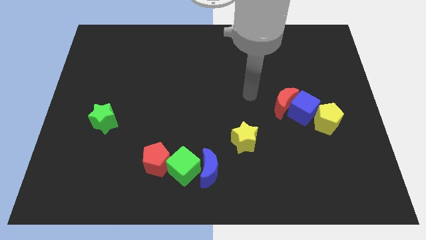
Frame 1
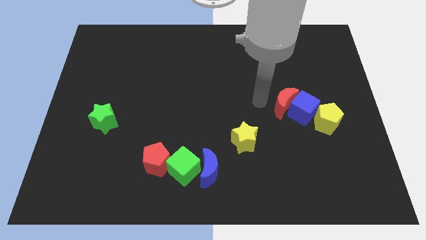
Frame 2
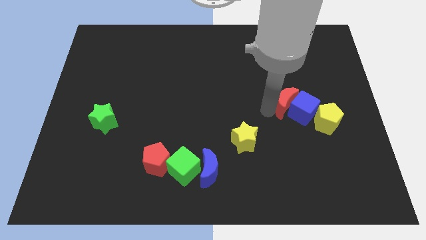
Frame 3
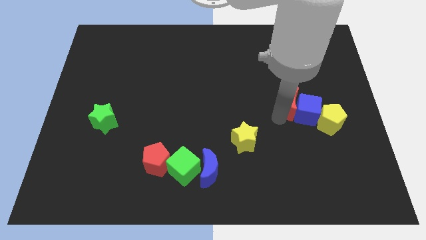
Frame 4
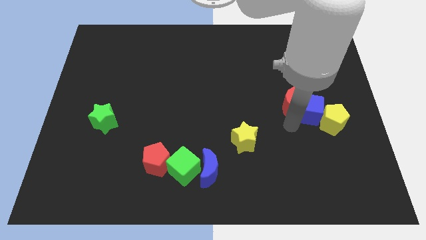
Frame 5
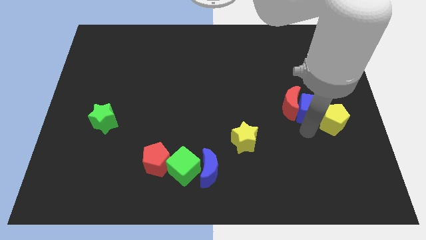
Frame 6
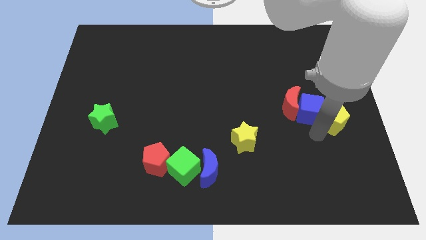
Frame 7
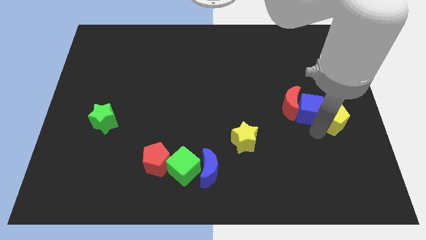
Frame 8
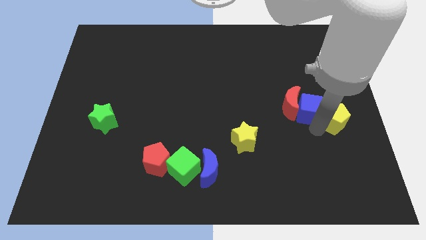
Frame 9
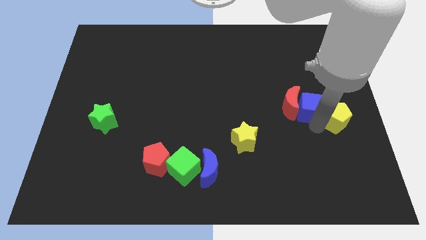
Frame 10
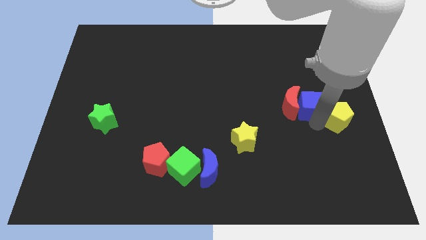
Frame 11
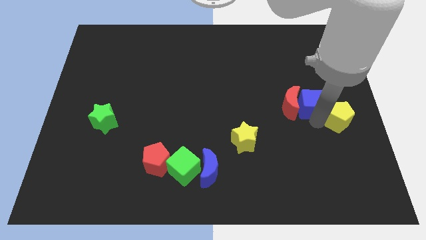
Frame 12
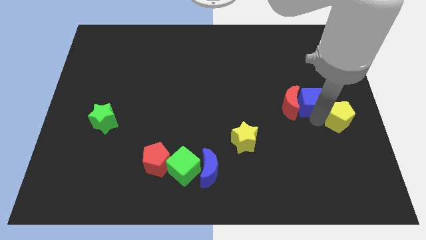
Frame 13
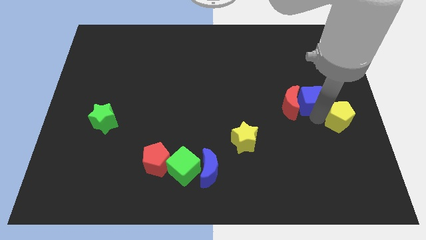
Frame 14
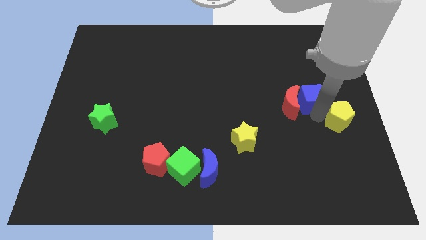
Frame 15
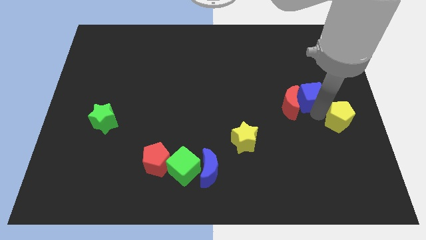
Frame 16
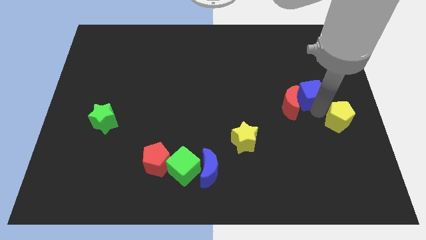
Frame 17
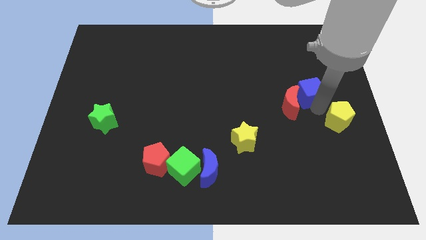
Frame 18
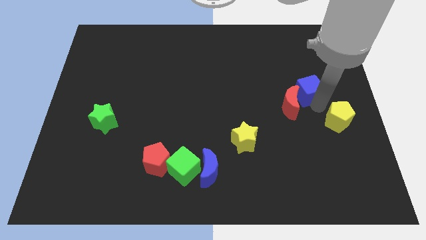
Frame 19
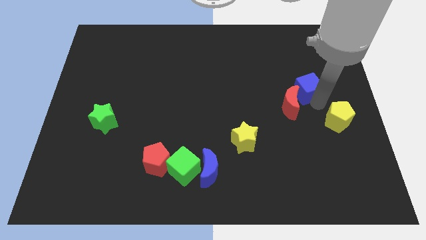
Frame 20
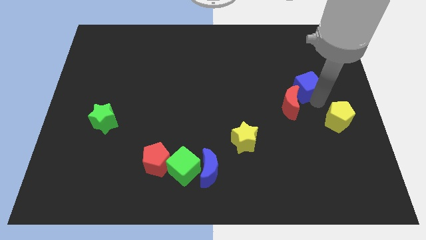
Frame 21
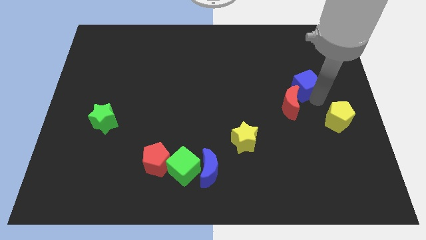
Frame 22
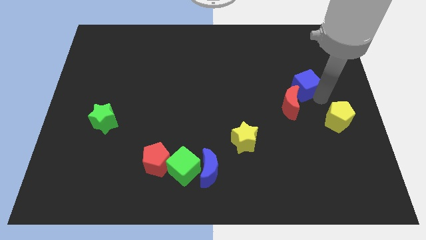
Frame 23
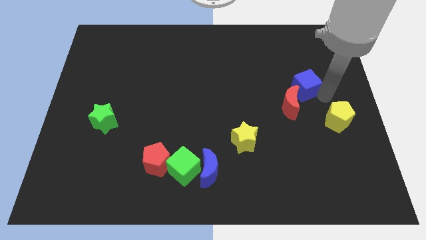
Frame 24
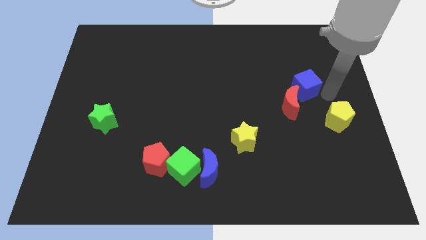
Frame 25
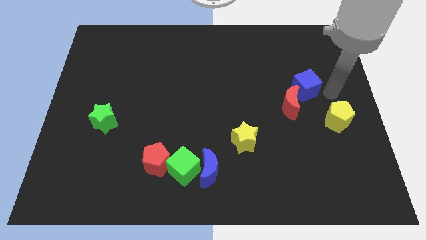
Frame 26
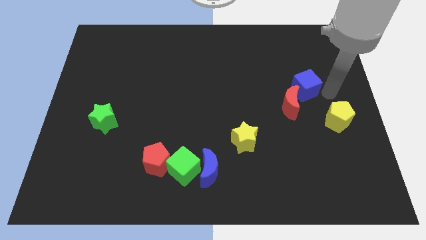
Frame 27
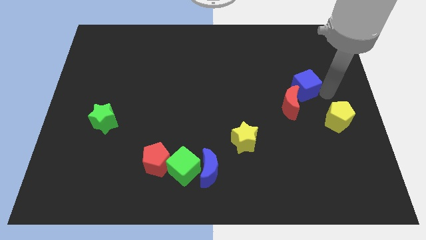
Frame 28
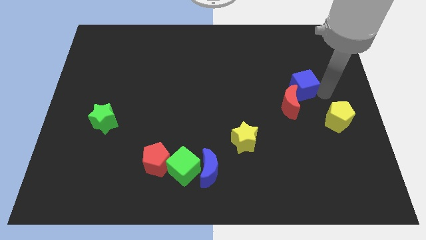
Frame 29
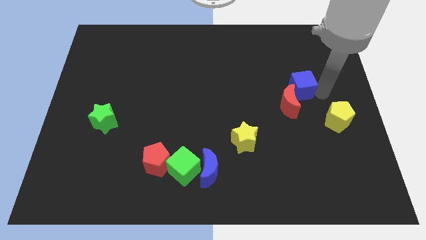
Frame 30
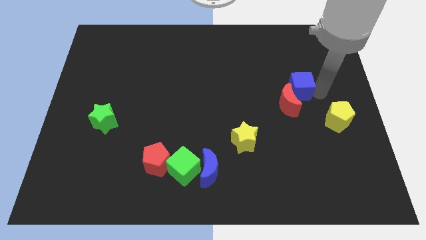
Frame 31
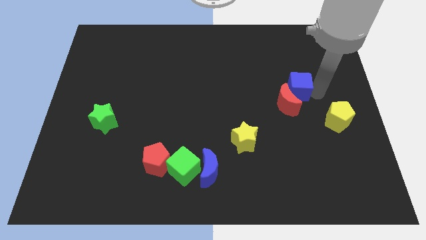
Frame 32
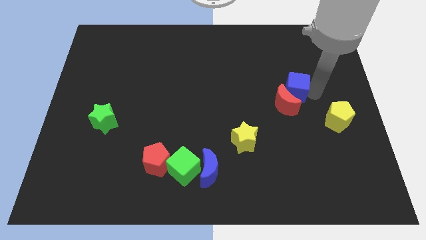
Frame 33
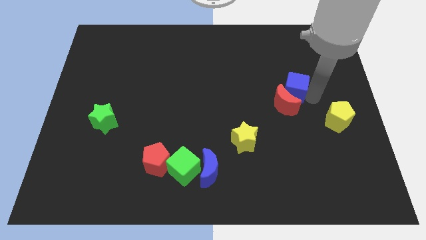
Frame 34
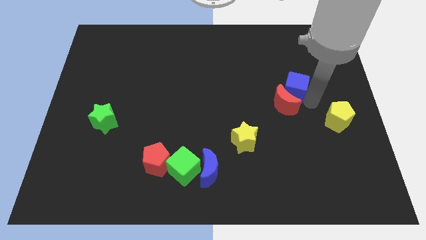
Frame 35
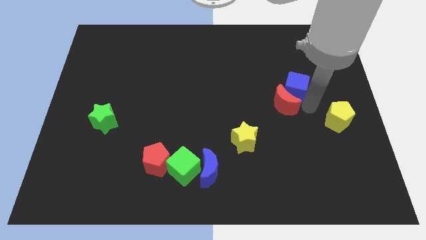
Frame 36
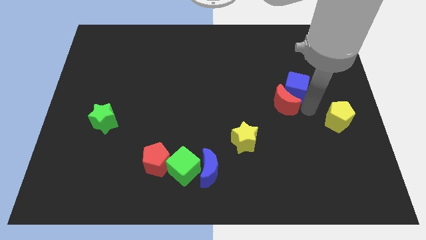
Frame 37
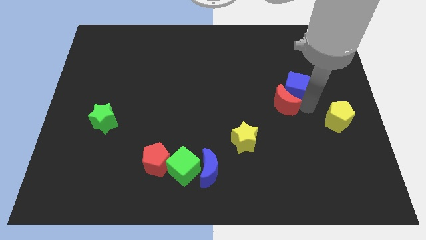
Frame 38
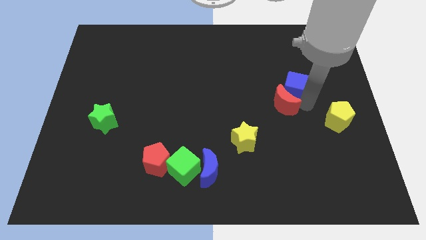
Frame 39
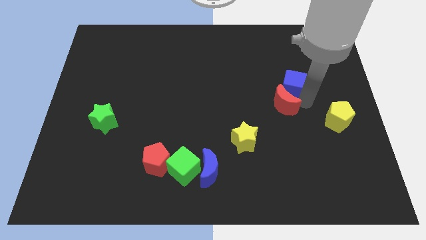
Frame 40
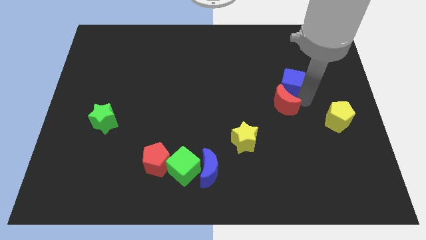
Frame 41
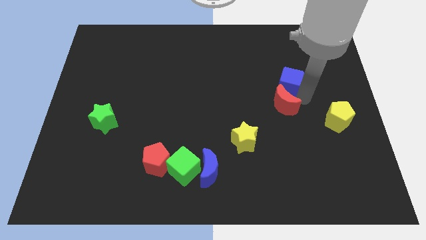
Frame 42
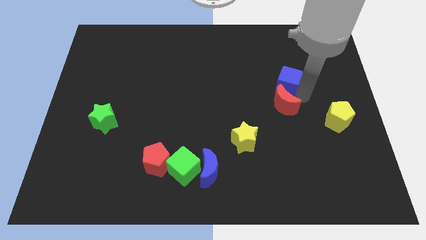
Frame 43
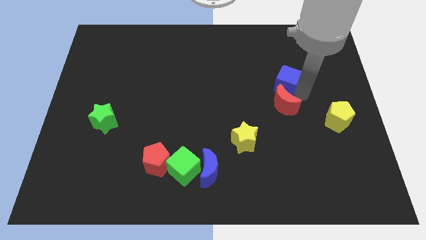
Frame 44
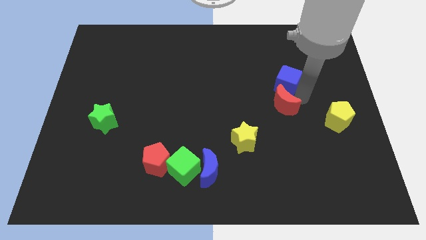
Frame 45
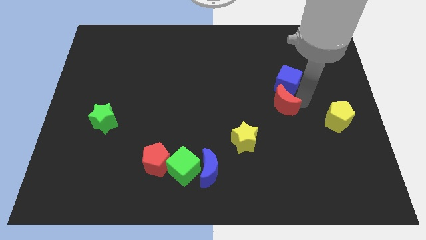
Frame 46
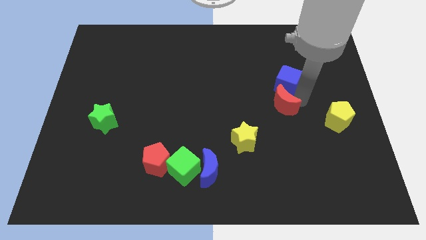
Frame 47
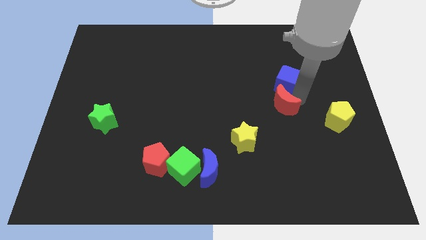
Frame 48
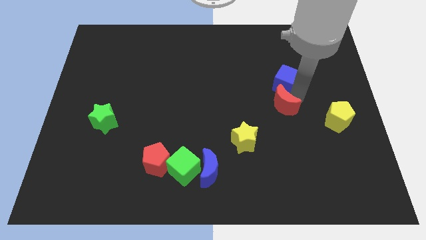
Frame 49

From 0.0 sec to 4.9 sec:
move the blue cube away from the red moon and yellow pentagon

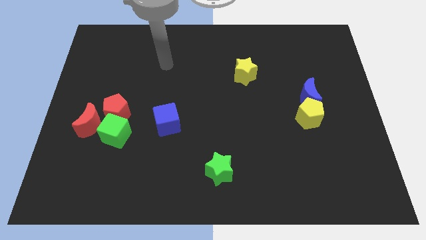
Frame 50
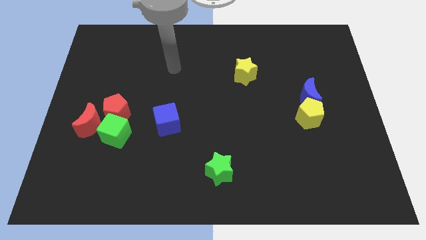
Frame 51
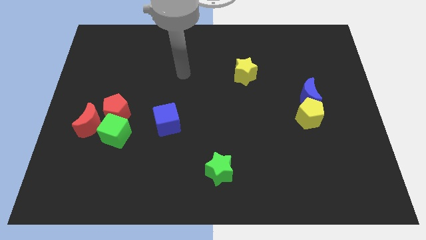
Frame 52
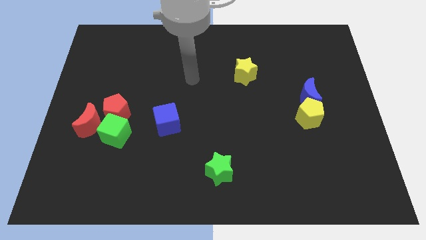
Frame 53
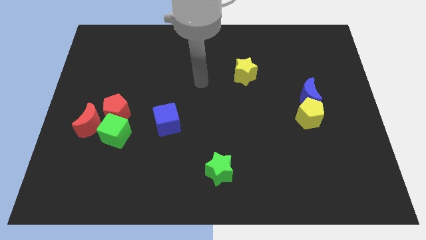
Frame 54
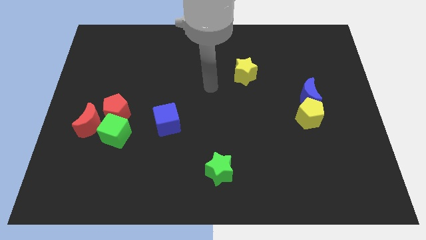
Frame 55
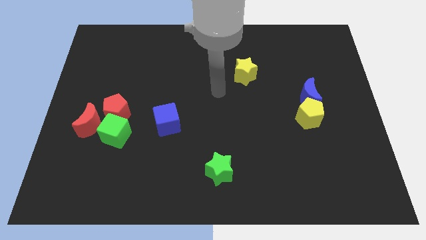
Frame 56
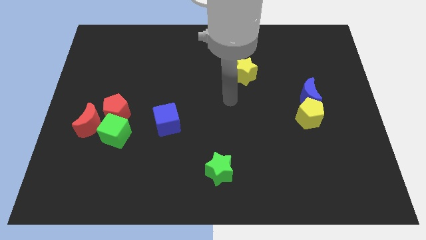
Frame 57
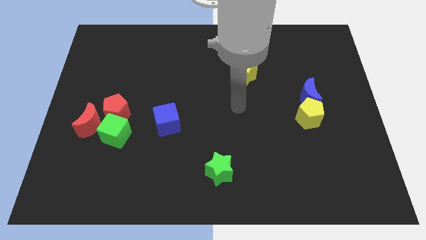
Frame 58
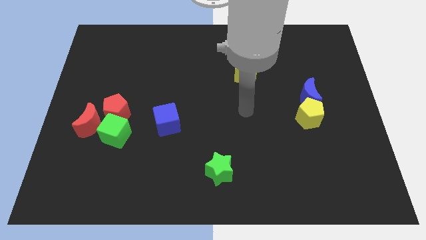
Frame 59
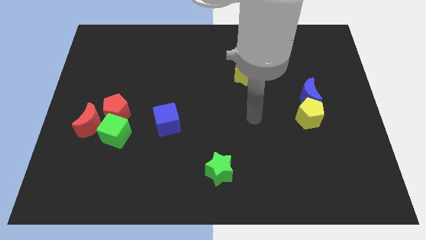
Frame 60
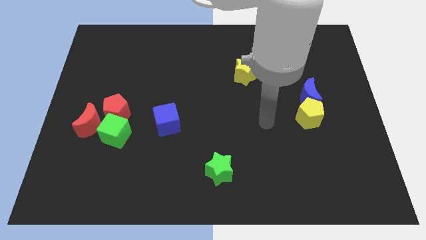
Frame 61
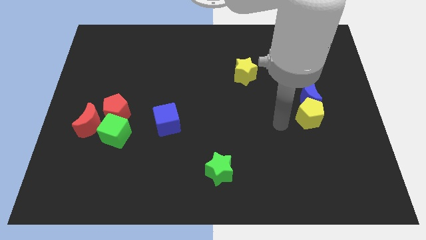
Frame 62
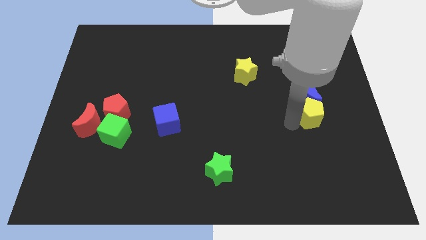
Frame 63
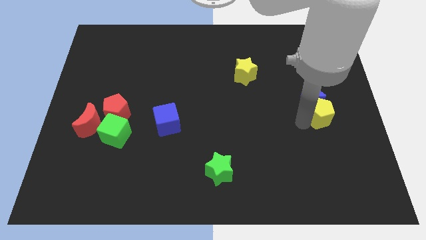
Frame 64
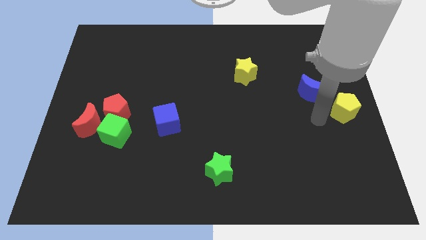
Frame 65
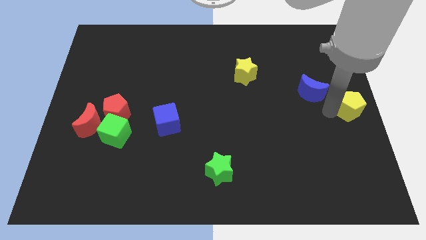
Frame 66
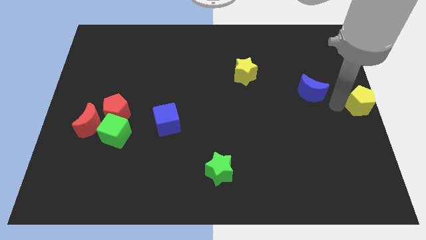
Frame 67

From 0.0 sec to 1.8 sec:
move the blue moon away from the yellow pentagon

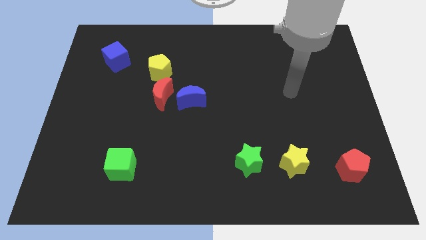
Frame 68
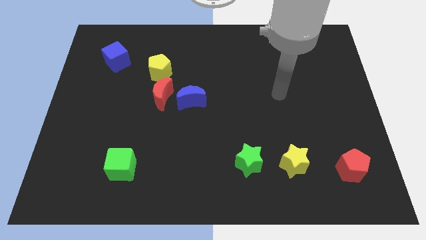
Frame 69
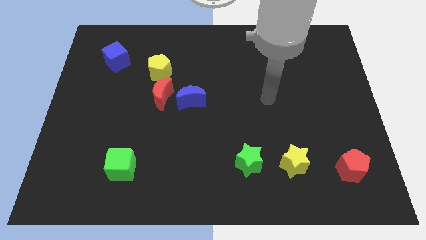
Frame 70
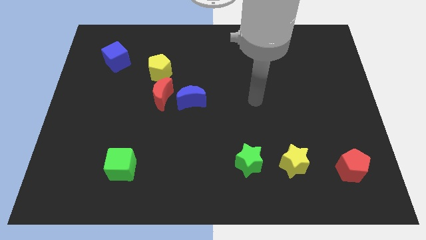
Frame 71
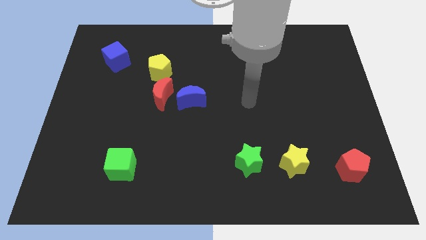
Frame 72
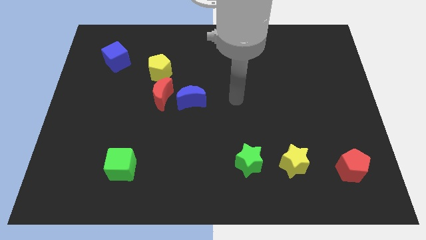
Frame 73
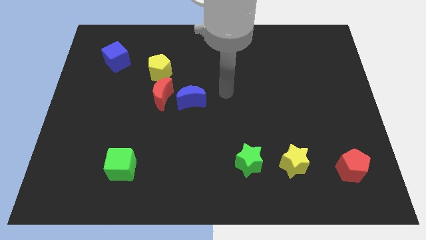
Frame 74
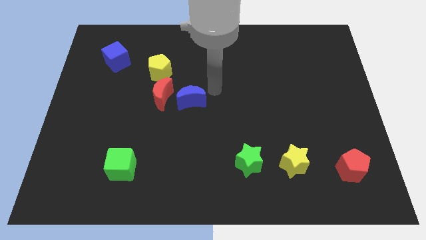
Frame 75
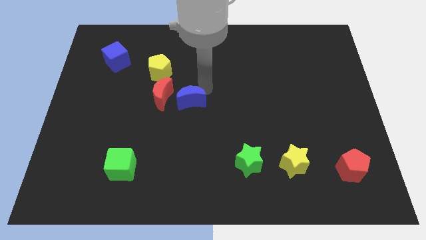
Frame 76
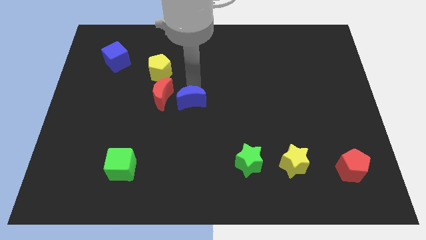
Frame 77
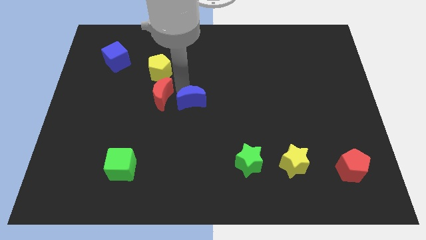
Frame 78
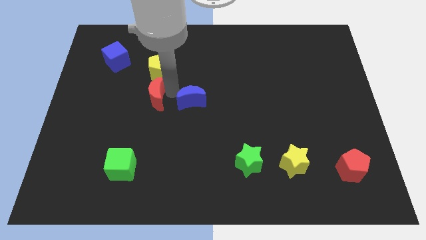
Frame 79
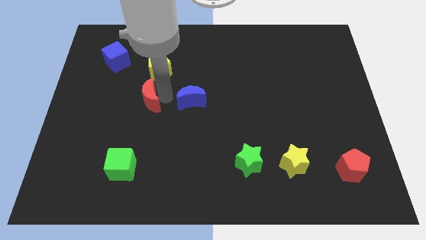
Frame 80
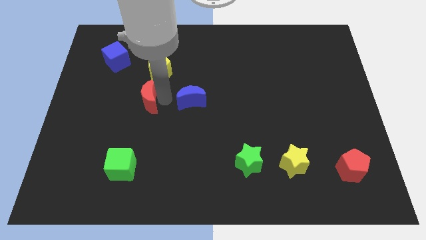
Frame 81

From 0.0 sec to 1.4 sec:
pull the blue moon apart from the red moon

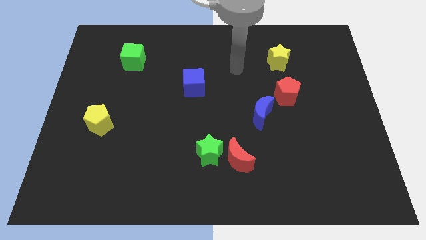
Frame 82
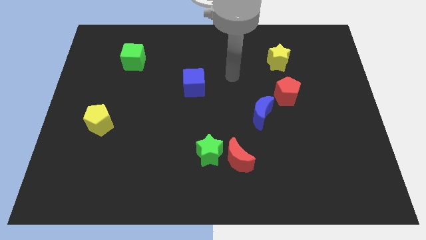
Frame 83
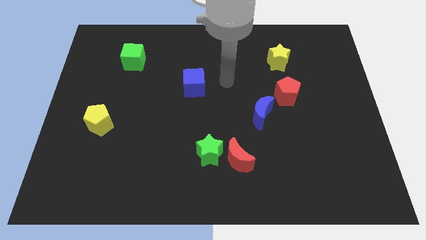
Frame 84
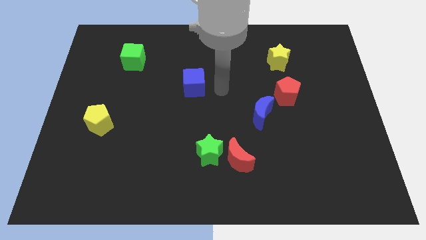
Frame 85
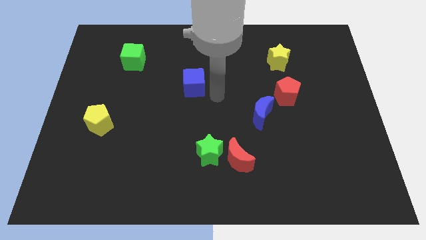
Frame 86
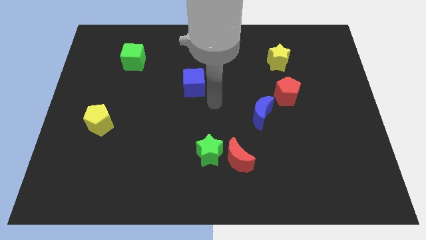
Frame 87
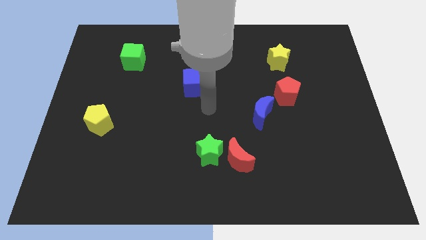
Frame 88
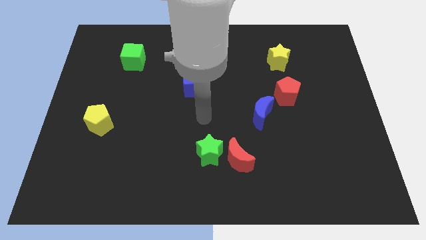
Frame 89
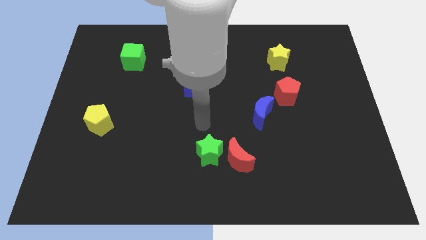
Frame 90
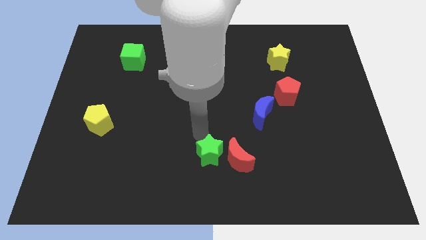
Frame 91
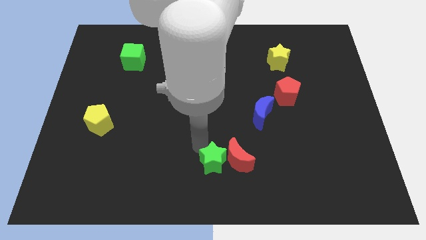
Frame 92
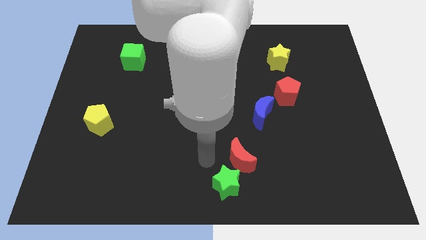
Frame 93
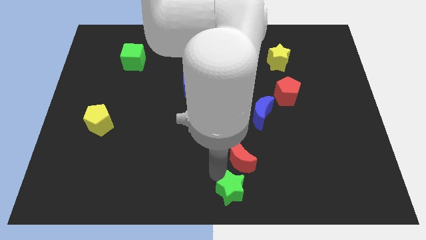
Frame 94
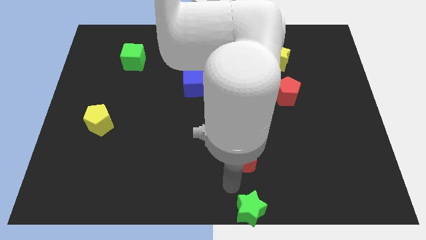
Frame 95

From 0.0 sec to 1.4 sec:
separate the red moon from the green star
